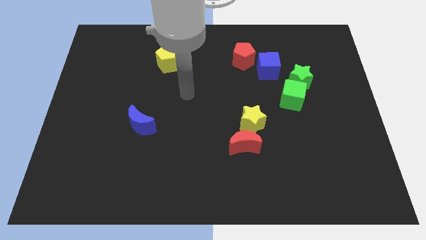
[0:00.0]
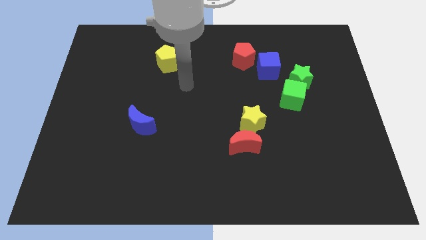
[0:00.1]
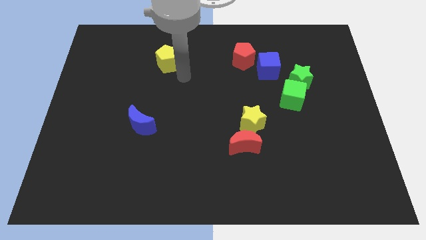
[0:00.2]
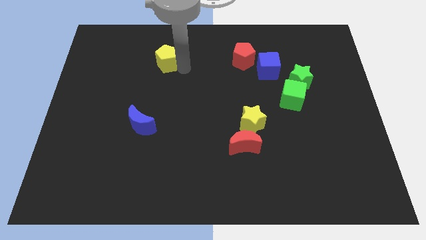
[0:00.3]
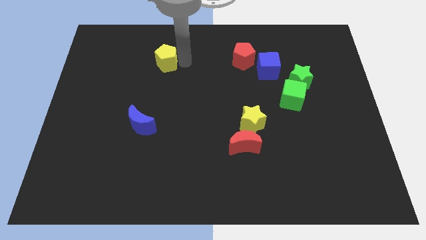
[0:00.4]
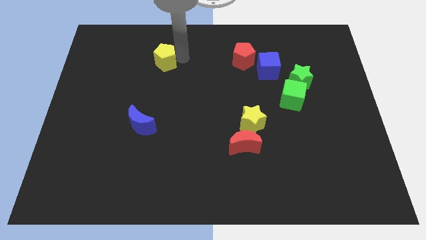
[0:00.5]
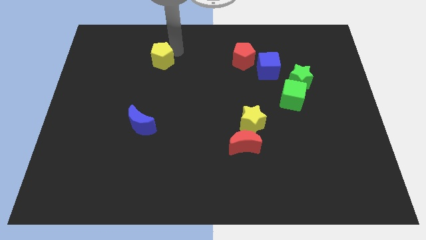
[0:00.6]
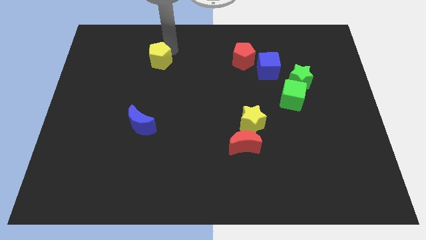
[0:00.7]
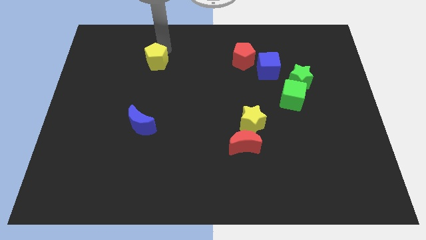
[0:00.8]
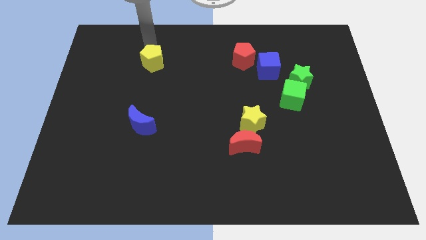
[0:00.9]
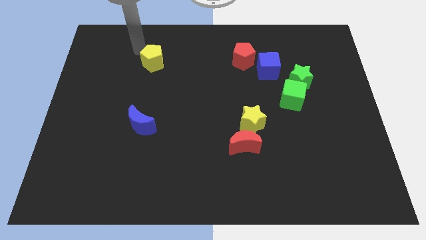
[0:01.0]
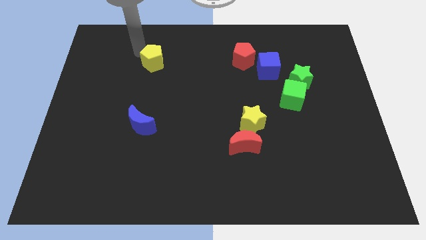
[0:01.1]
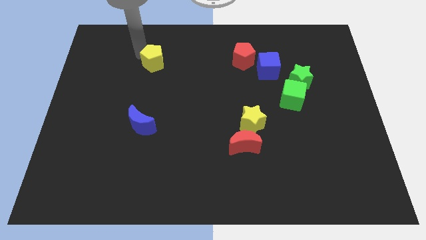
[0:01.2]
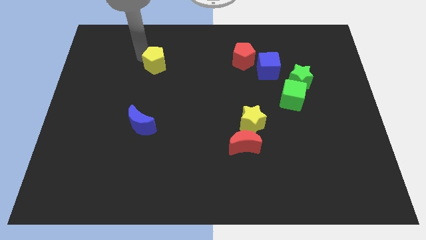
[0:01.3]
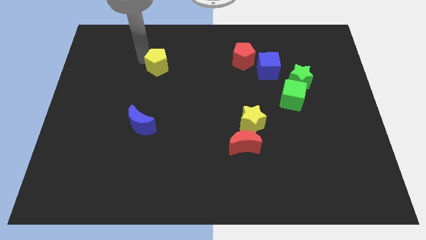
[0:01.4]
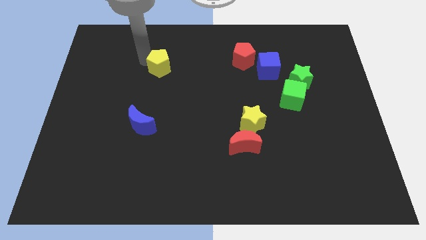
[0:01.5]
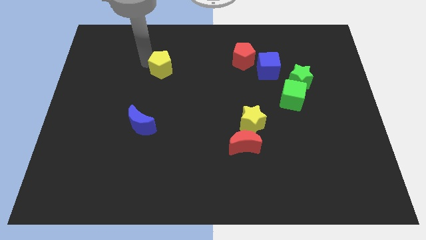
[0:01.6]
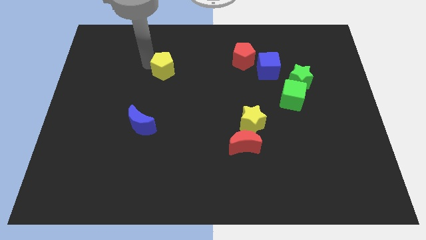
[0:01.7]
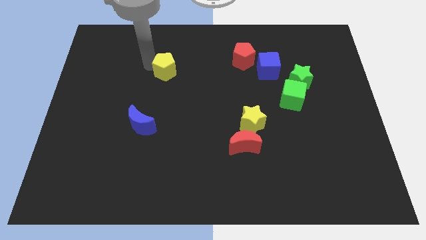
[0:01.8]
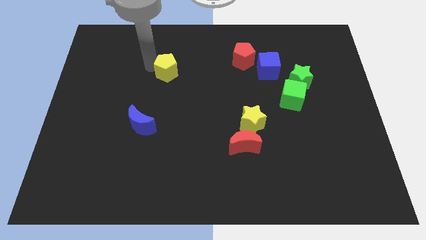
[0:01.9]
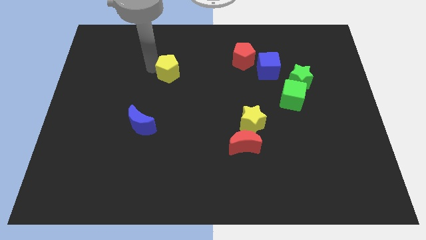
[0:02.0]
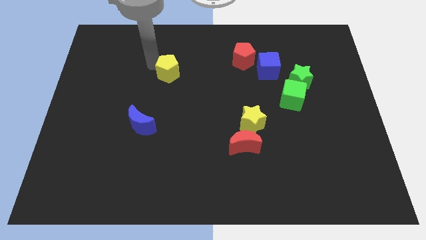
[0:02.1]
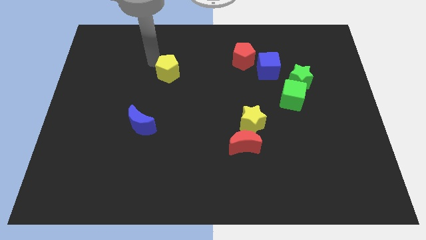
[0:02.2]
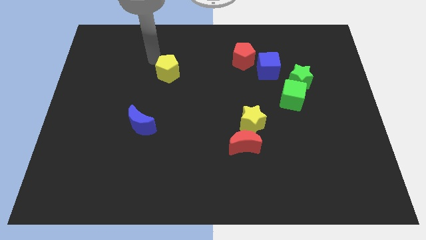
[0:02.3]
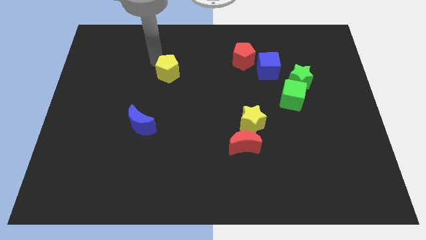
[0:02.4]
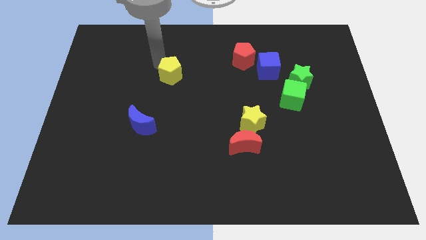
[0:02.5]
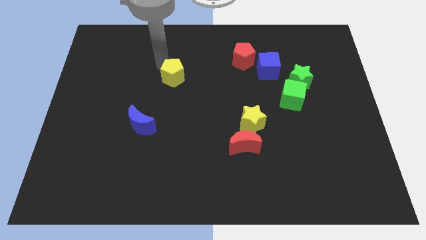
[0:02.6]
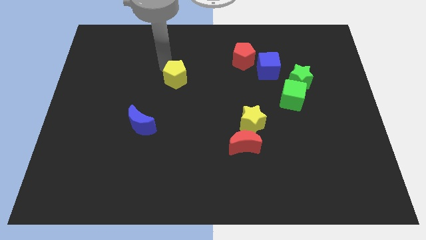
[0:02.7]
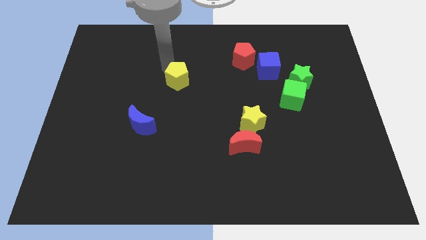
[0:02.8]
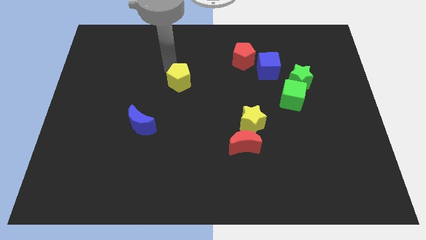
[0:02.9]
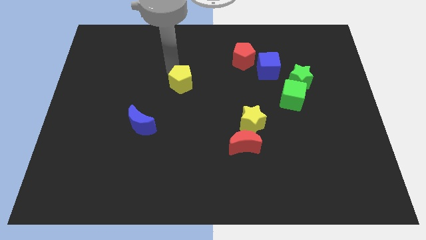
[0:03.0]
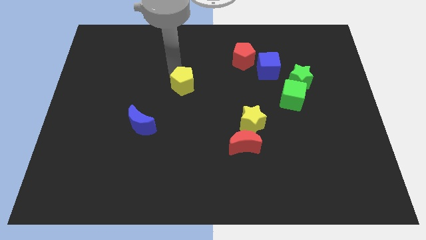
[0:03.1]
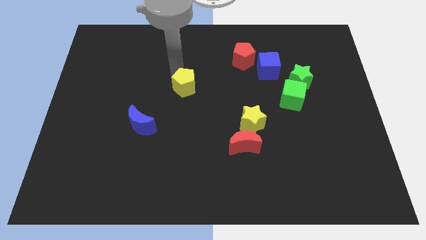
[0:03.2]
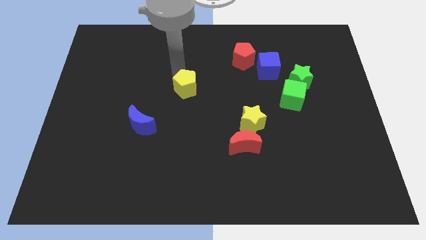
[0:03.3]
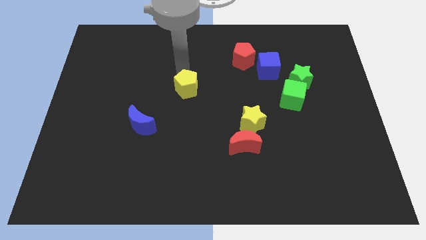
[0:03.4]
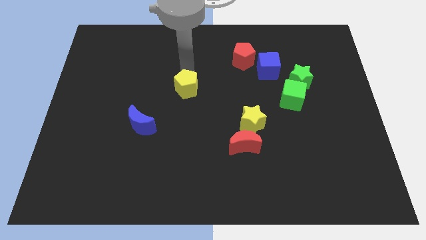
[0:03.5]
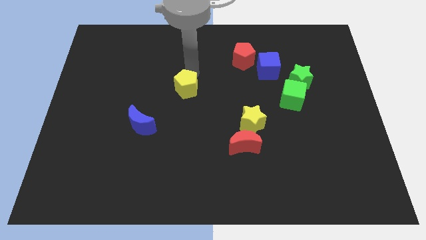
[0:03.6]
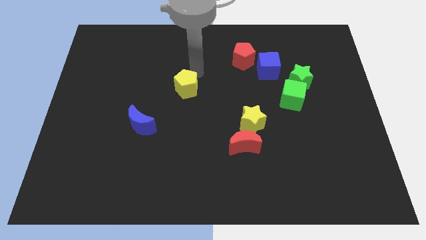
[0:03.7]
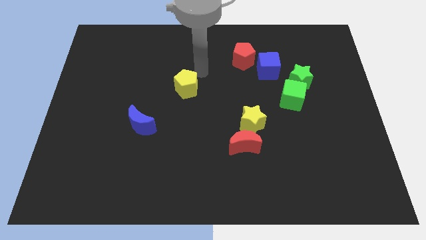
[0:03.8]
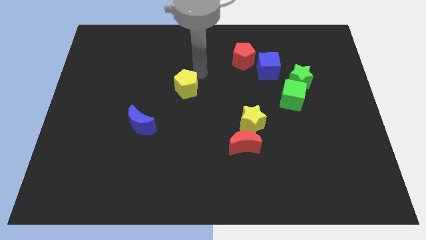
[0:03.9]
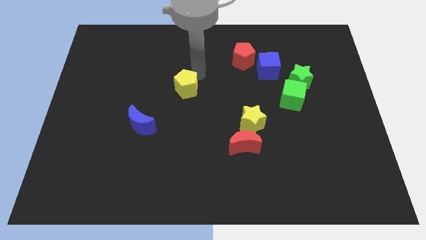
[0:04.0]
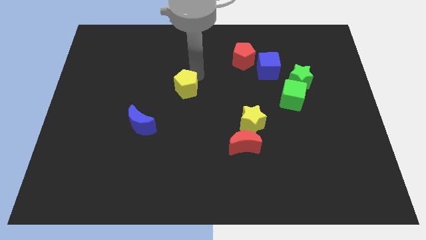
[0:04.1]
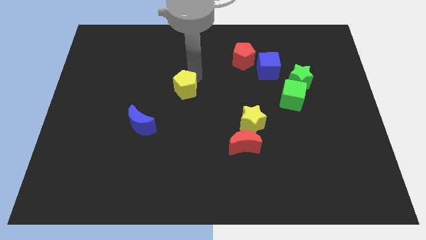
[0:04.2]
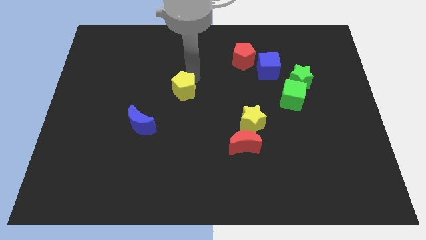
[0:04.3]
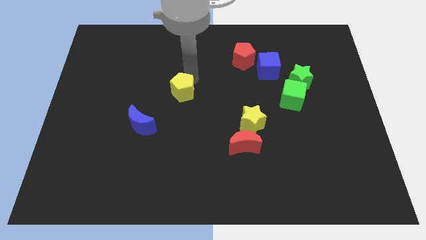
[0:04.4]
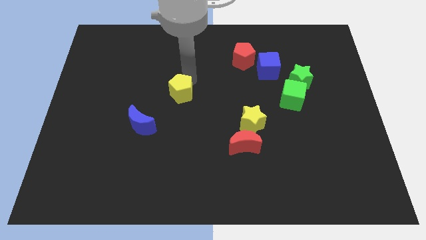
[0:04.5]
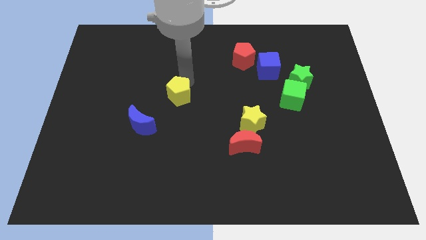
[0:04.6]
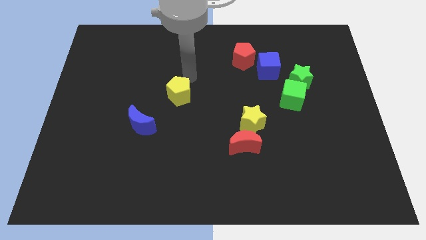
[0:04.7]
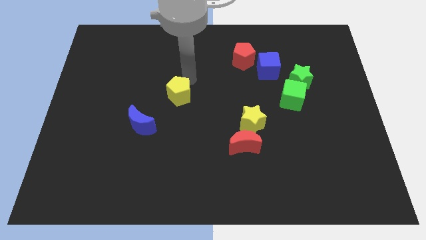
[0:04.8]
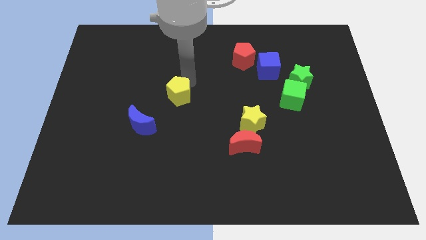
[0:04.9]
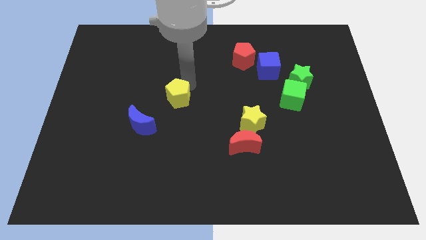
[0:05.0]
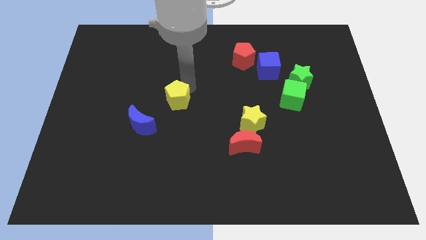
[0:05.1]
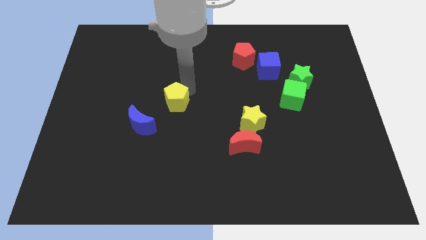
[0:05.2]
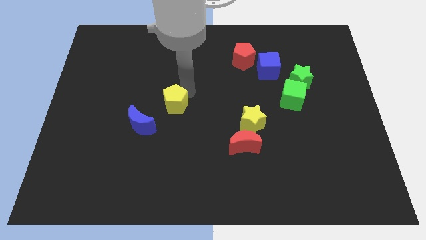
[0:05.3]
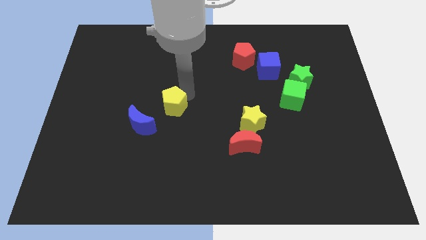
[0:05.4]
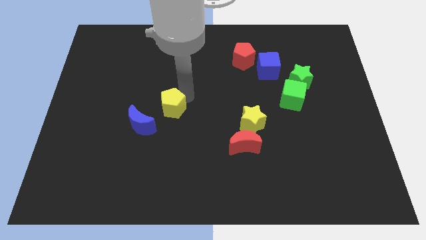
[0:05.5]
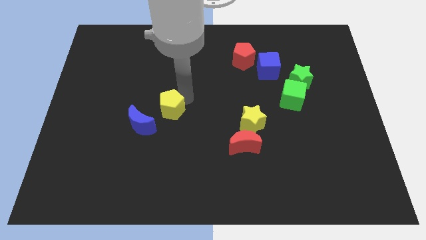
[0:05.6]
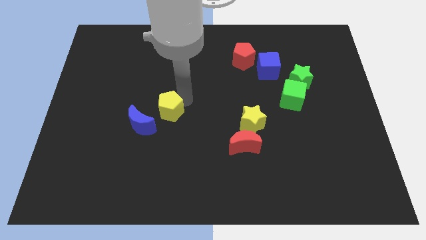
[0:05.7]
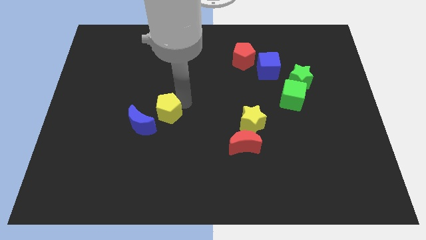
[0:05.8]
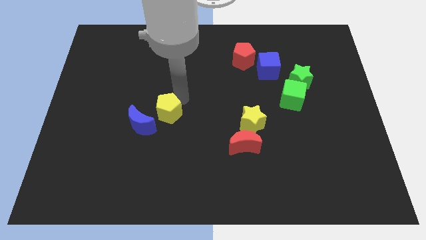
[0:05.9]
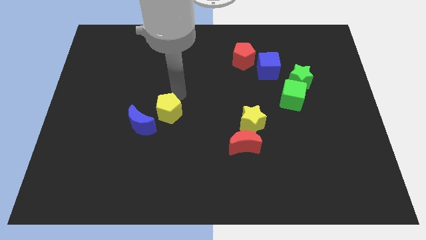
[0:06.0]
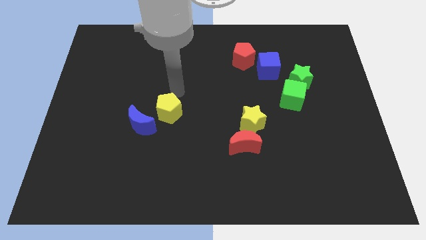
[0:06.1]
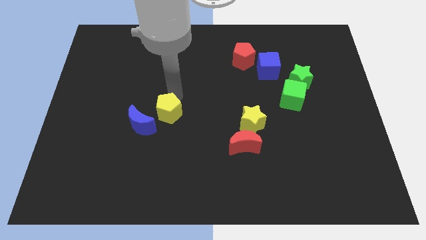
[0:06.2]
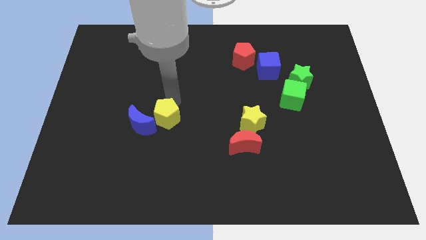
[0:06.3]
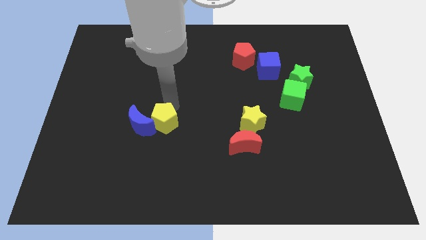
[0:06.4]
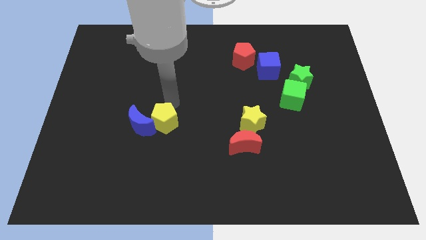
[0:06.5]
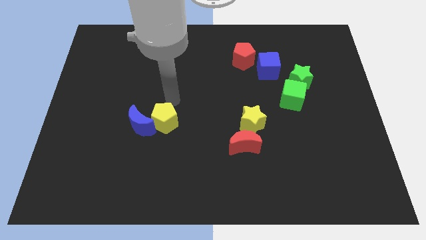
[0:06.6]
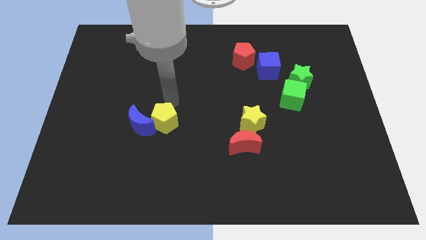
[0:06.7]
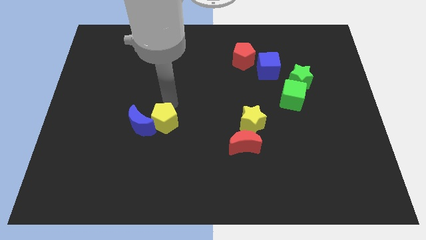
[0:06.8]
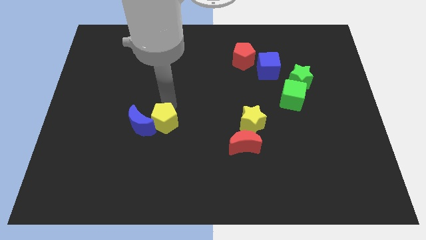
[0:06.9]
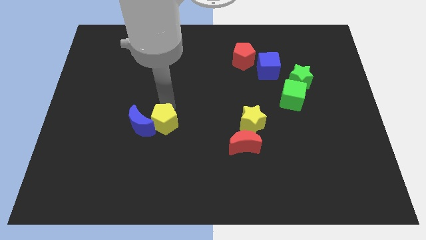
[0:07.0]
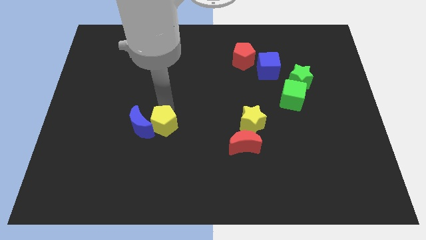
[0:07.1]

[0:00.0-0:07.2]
push the yellow pentagon down
